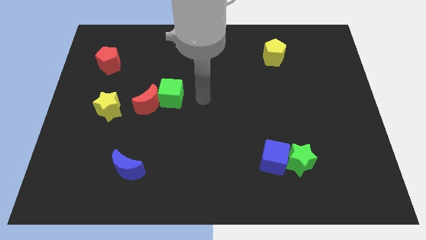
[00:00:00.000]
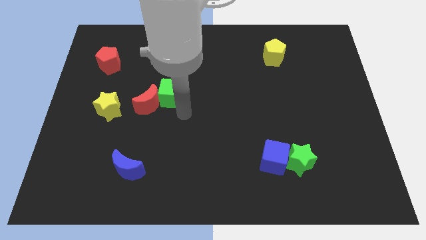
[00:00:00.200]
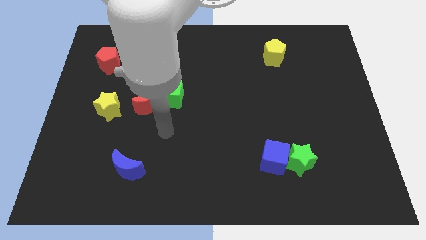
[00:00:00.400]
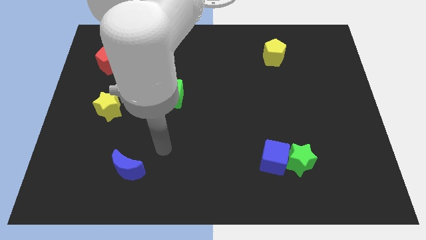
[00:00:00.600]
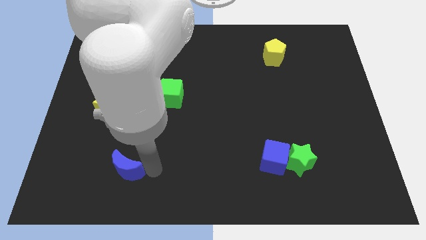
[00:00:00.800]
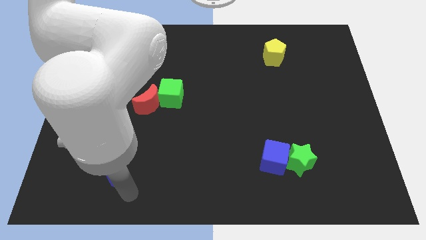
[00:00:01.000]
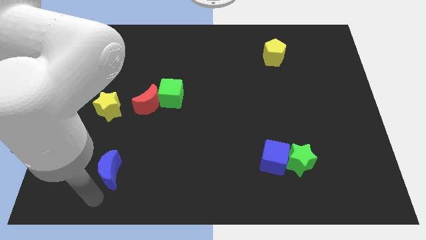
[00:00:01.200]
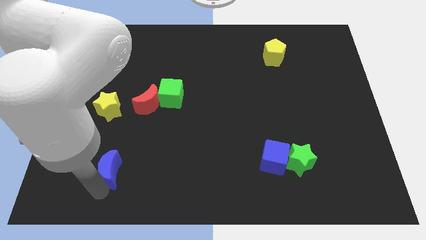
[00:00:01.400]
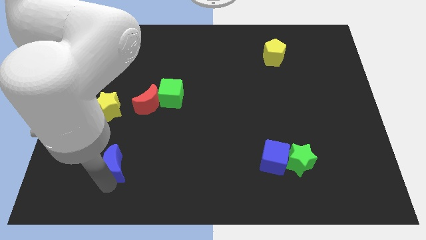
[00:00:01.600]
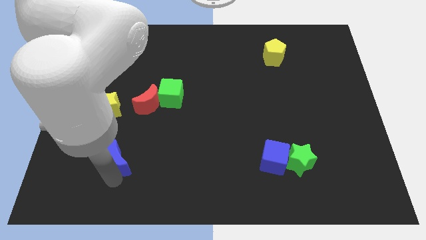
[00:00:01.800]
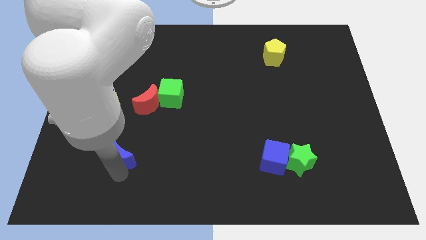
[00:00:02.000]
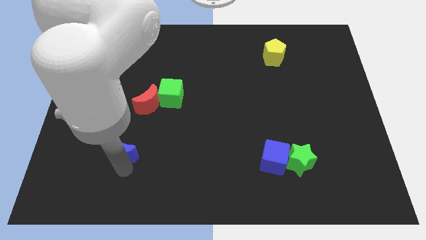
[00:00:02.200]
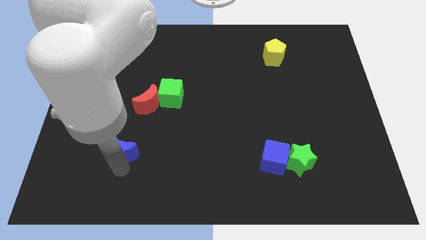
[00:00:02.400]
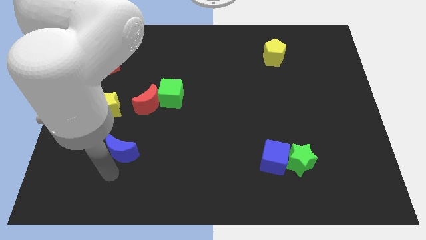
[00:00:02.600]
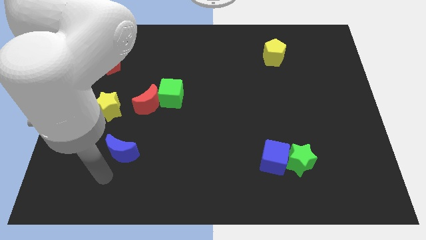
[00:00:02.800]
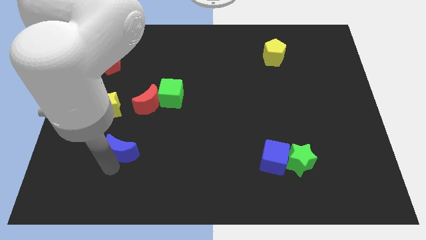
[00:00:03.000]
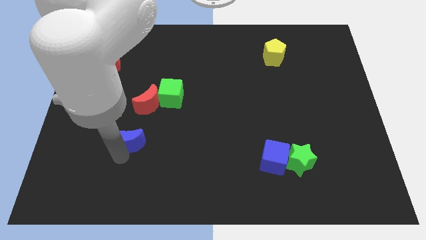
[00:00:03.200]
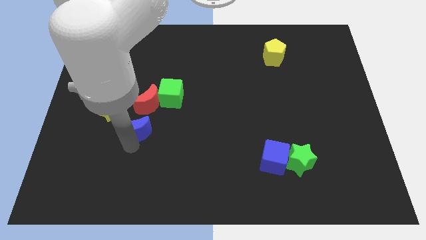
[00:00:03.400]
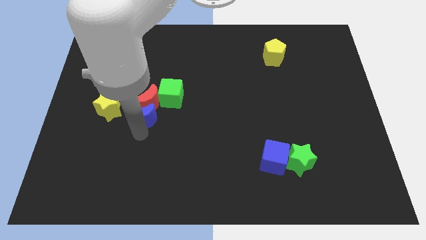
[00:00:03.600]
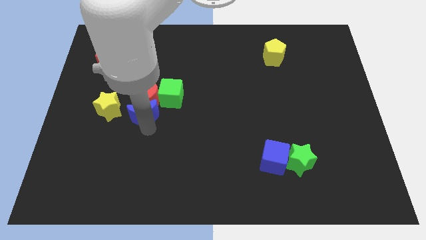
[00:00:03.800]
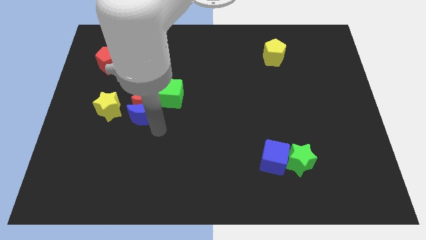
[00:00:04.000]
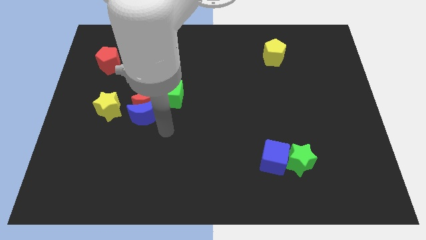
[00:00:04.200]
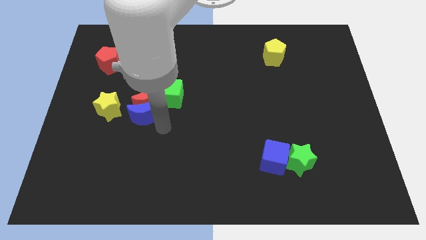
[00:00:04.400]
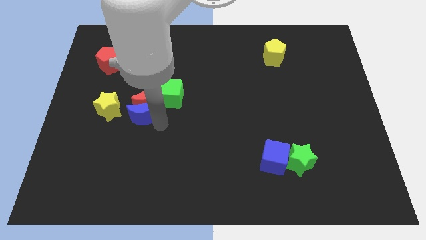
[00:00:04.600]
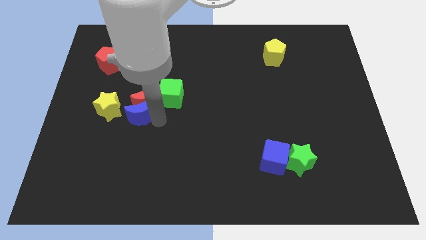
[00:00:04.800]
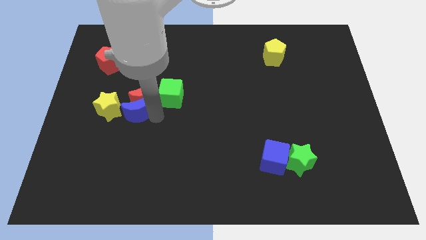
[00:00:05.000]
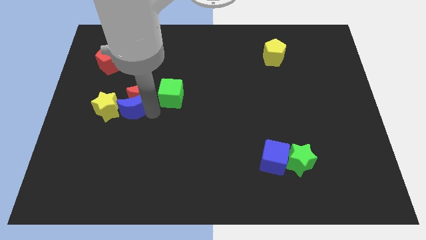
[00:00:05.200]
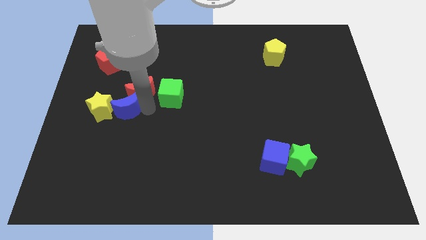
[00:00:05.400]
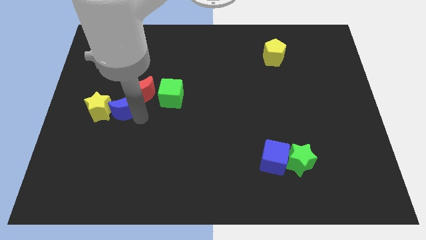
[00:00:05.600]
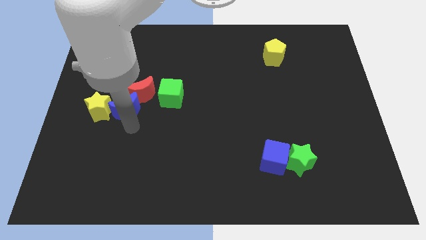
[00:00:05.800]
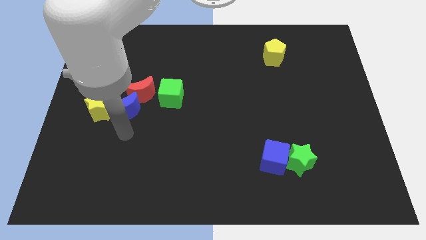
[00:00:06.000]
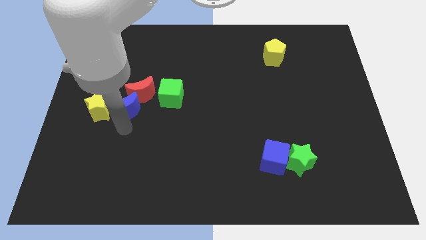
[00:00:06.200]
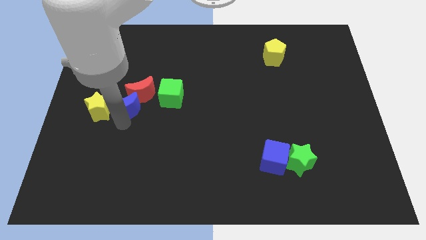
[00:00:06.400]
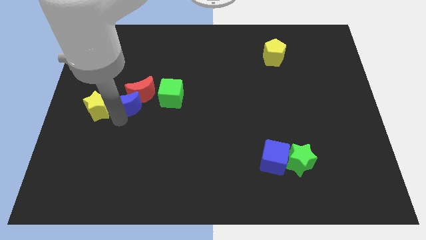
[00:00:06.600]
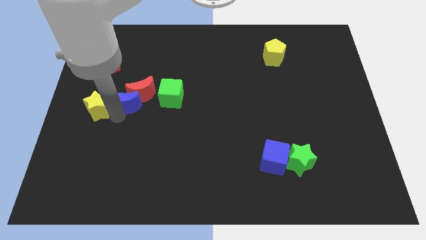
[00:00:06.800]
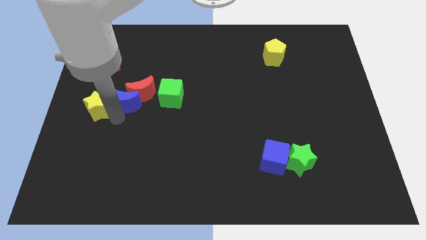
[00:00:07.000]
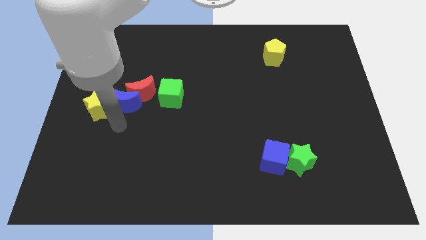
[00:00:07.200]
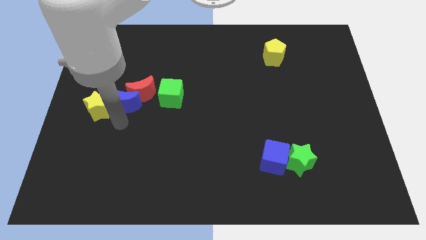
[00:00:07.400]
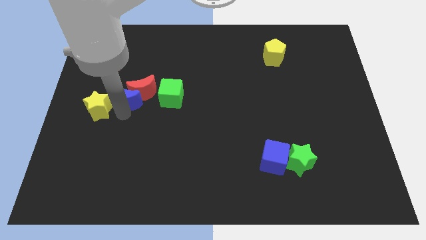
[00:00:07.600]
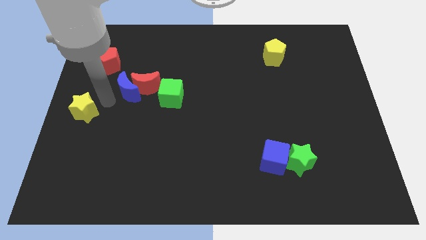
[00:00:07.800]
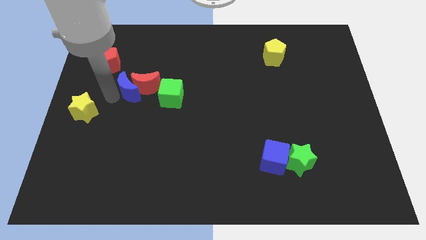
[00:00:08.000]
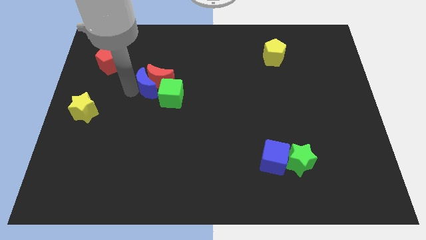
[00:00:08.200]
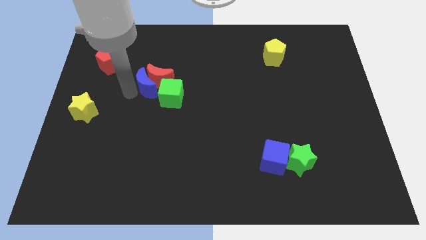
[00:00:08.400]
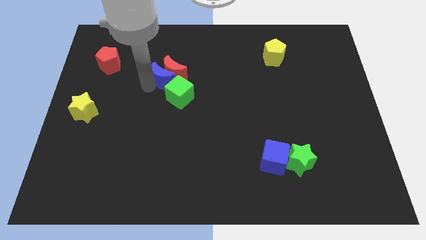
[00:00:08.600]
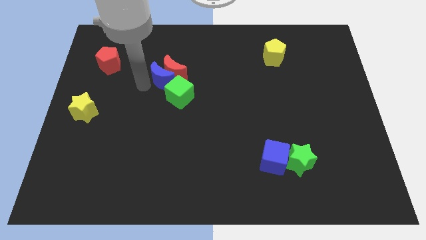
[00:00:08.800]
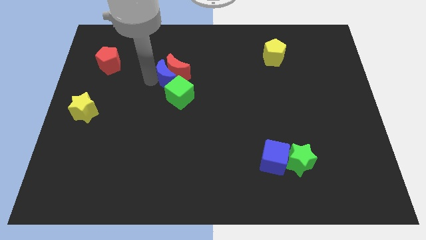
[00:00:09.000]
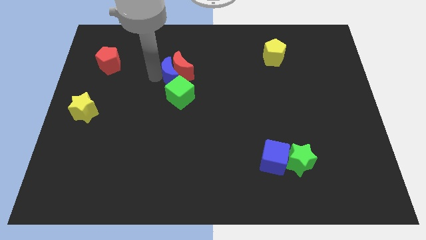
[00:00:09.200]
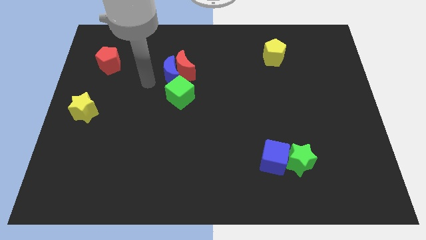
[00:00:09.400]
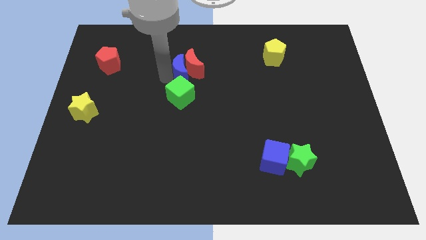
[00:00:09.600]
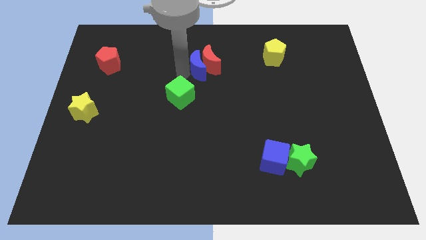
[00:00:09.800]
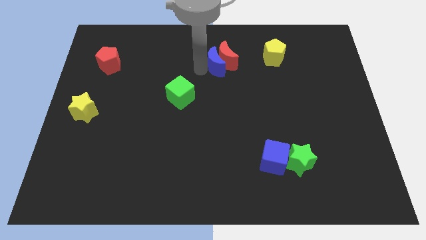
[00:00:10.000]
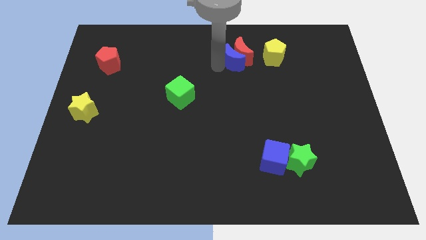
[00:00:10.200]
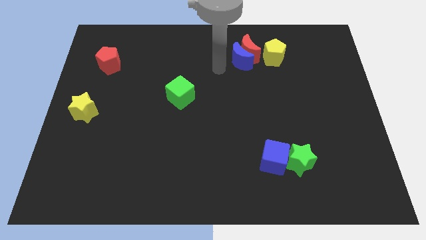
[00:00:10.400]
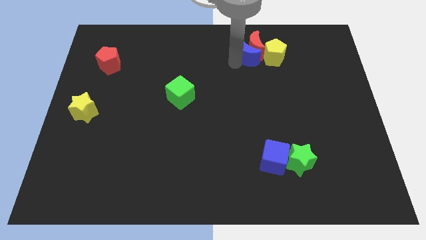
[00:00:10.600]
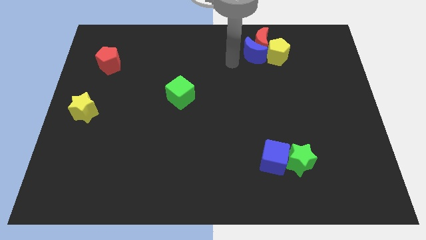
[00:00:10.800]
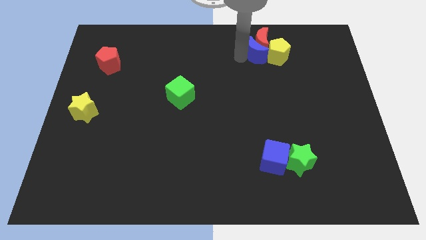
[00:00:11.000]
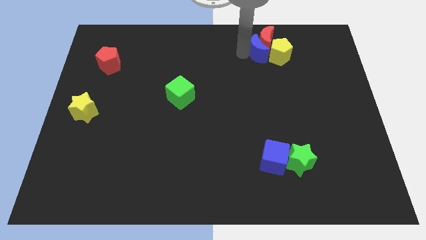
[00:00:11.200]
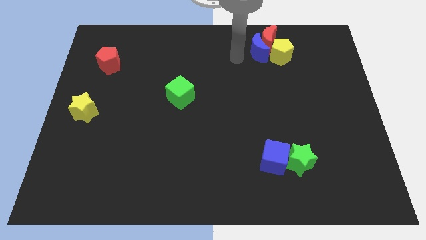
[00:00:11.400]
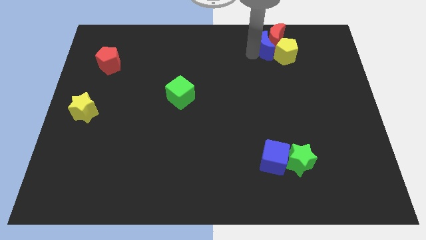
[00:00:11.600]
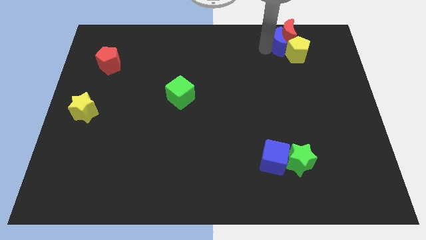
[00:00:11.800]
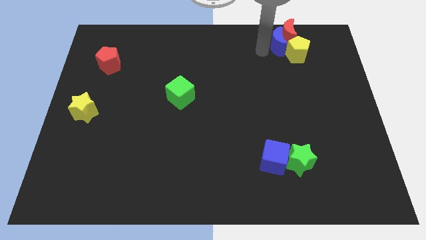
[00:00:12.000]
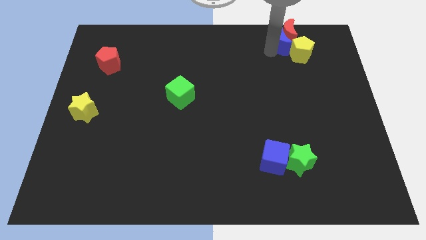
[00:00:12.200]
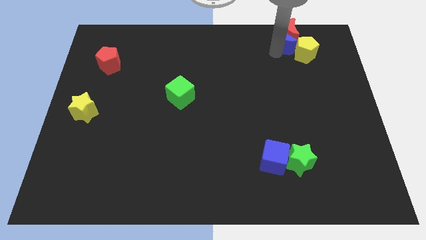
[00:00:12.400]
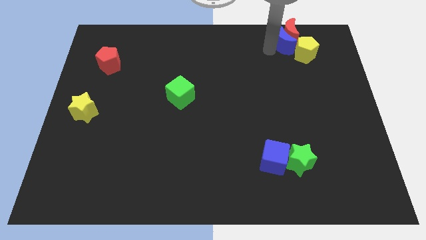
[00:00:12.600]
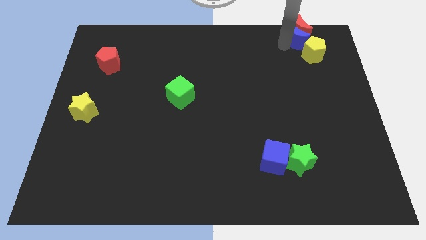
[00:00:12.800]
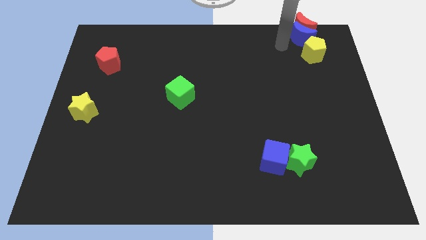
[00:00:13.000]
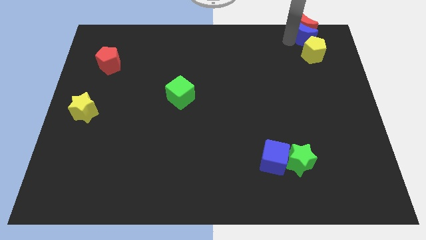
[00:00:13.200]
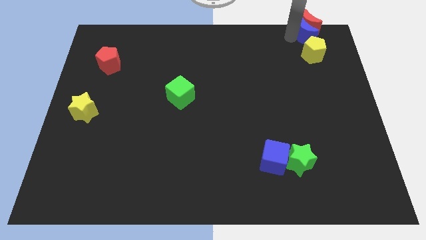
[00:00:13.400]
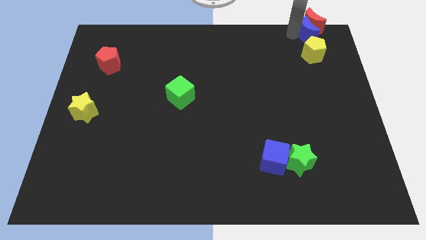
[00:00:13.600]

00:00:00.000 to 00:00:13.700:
push the blue moon to the top right of the board
